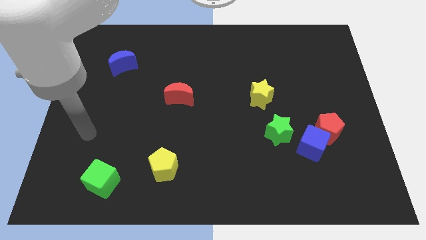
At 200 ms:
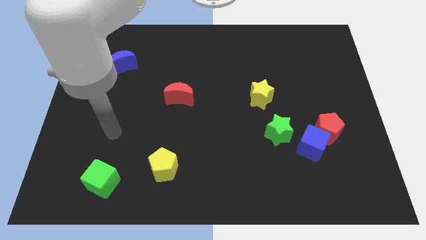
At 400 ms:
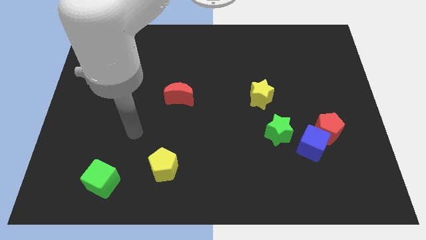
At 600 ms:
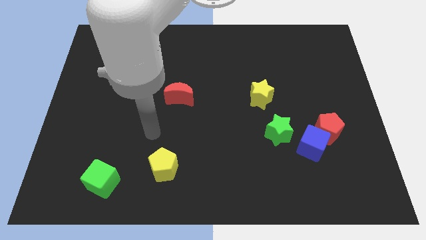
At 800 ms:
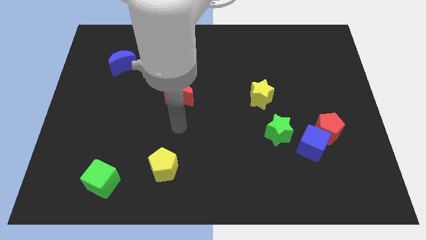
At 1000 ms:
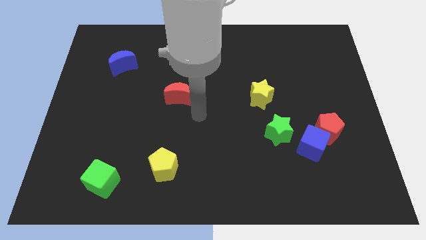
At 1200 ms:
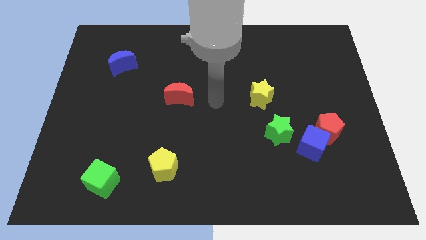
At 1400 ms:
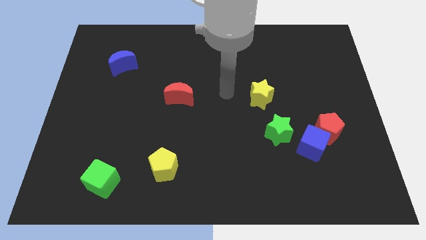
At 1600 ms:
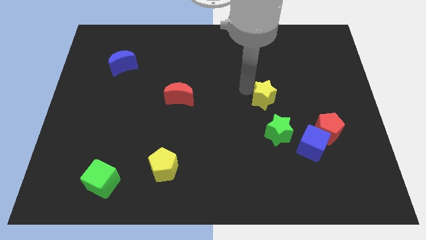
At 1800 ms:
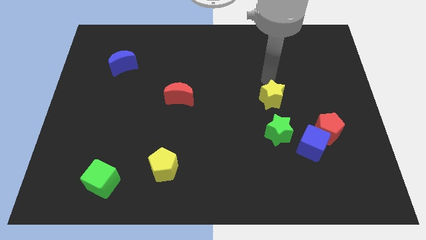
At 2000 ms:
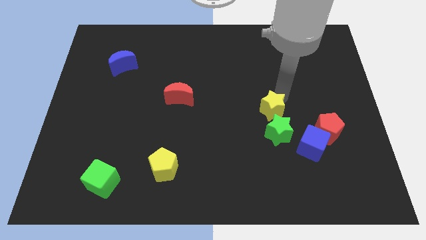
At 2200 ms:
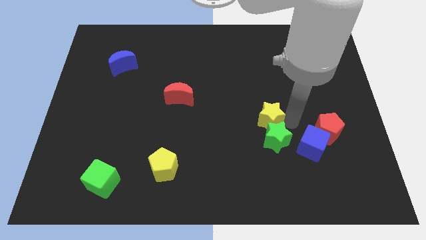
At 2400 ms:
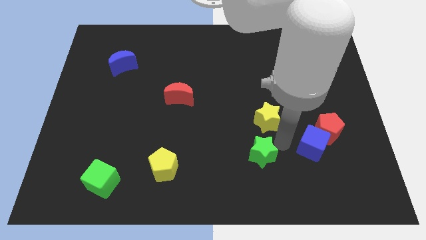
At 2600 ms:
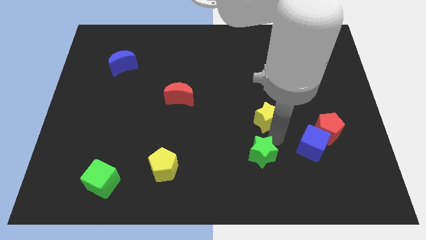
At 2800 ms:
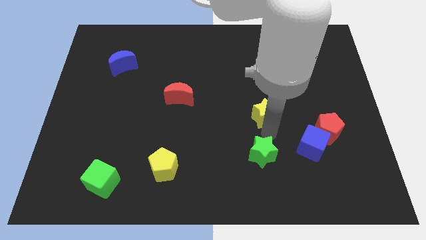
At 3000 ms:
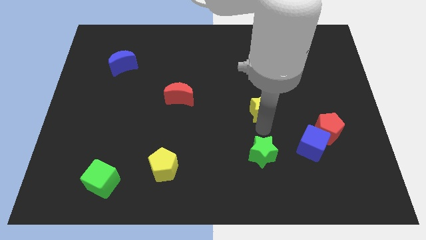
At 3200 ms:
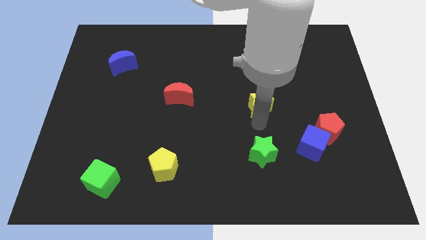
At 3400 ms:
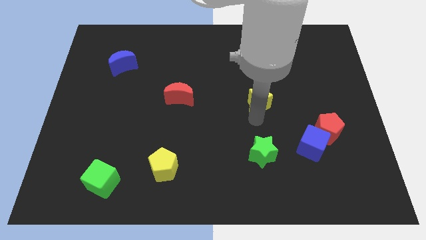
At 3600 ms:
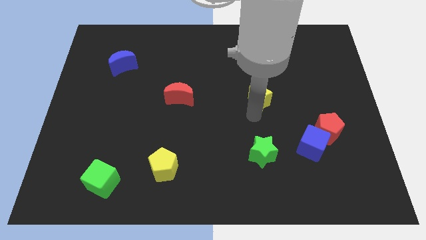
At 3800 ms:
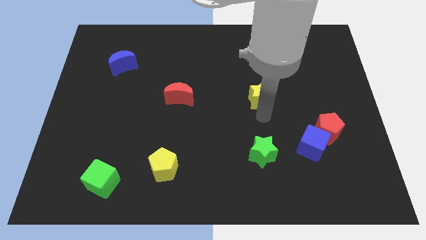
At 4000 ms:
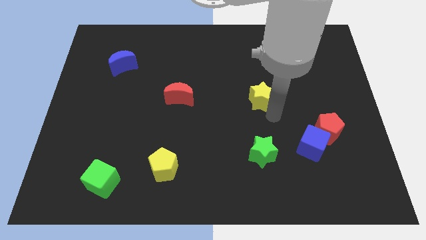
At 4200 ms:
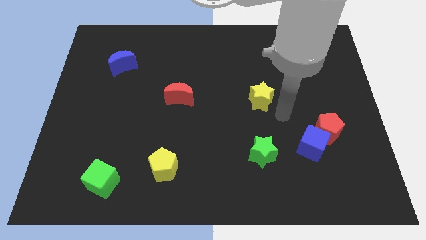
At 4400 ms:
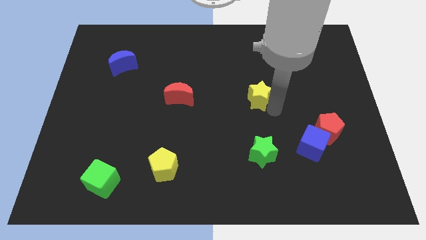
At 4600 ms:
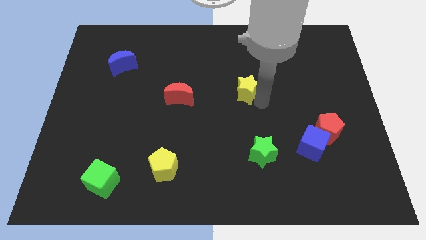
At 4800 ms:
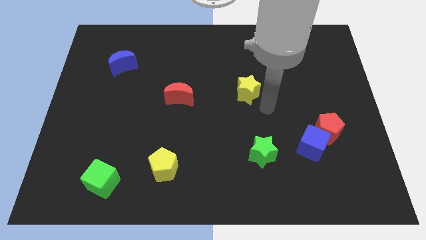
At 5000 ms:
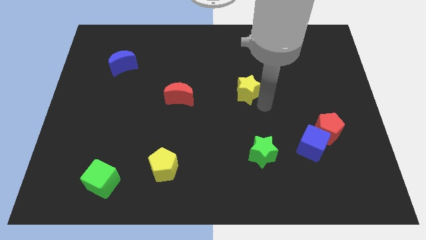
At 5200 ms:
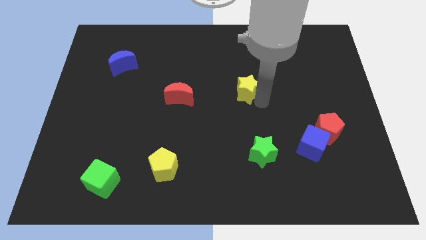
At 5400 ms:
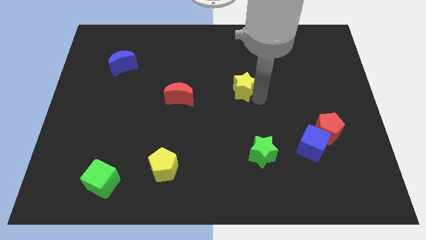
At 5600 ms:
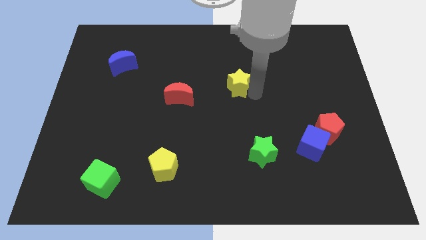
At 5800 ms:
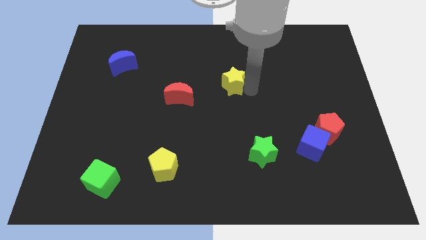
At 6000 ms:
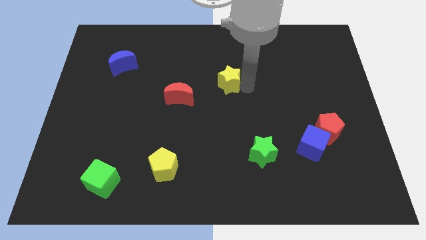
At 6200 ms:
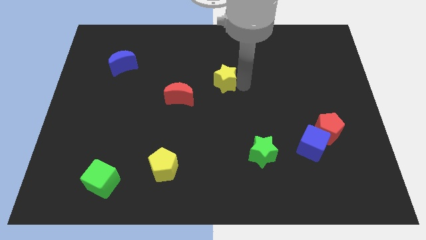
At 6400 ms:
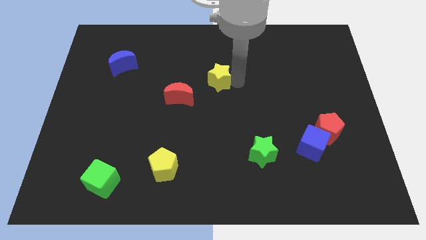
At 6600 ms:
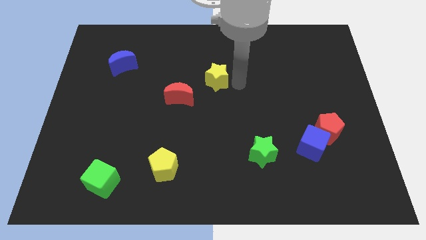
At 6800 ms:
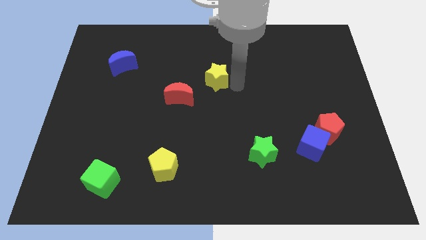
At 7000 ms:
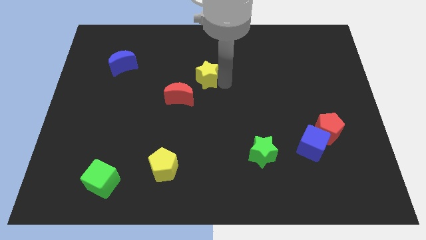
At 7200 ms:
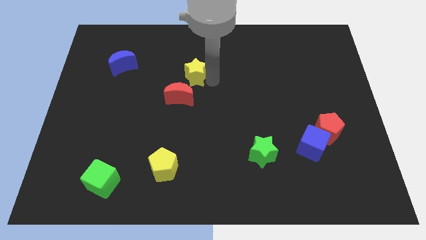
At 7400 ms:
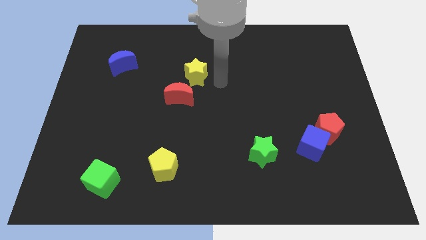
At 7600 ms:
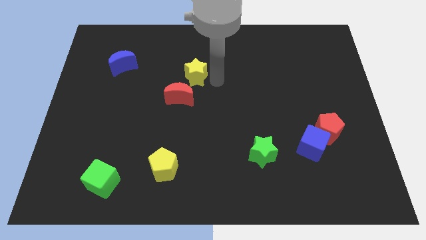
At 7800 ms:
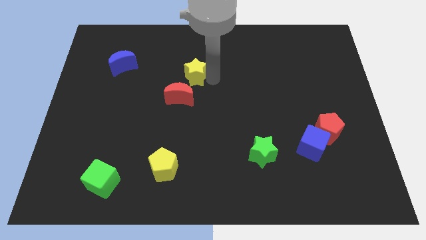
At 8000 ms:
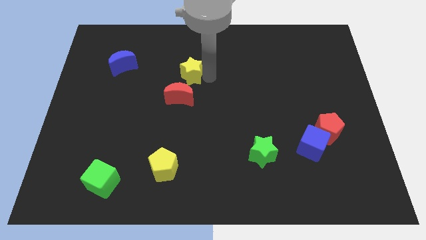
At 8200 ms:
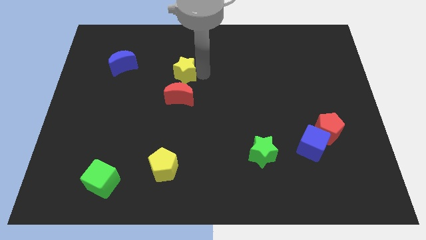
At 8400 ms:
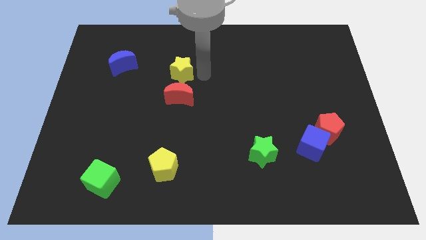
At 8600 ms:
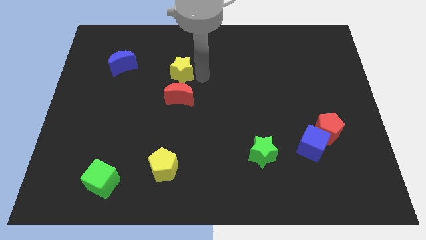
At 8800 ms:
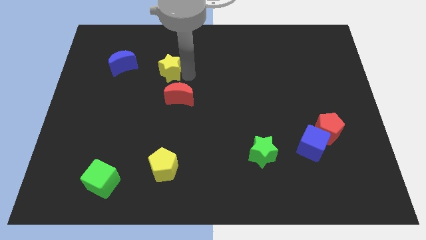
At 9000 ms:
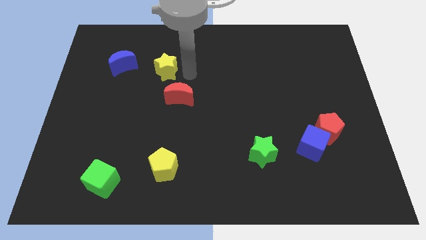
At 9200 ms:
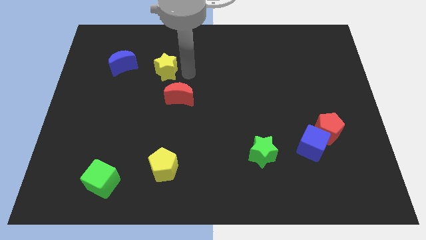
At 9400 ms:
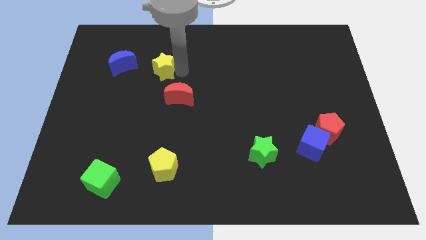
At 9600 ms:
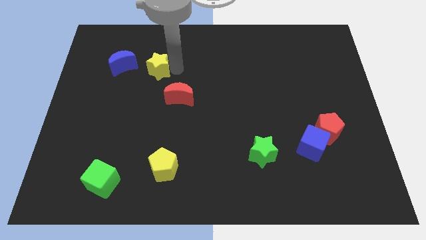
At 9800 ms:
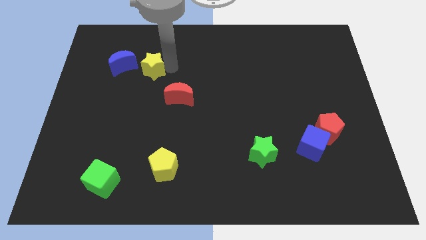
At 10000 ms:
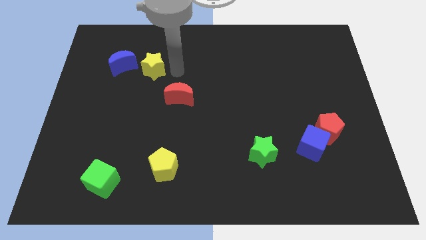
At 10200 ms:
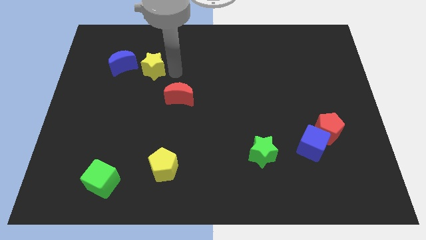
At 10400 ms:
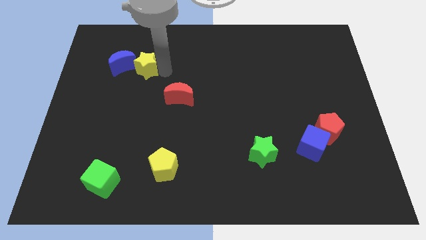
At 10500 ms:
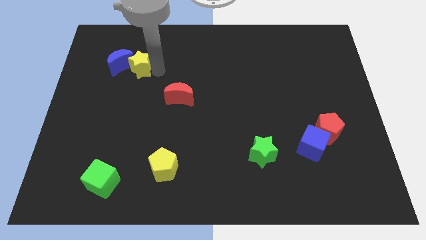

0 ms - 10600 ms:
put the yellow star next to the blue moon

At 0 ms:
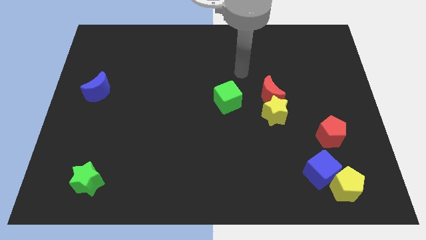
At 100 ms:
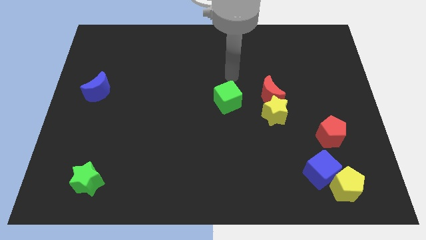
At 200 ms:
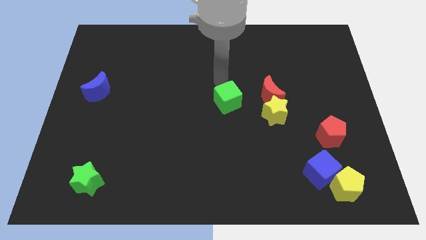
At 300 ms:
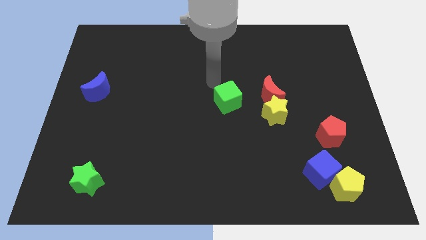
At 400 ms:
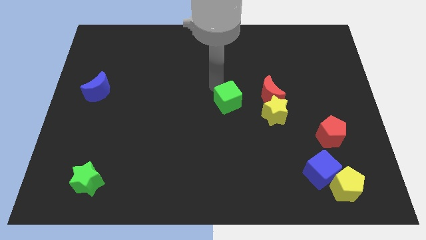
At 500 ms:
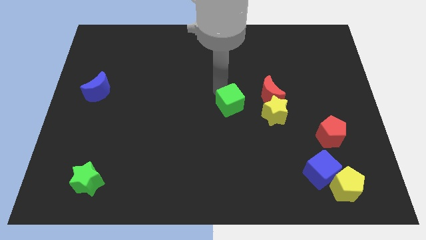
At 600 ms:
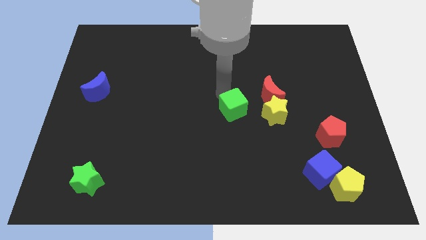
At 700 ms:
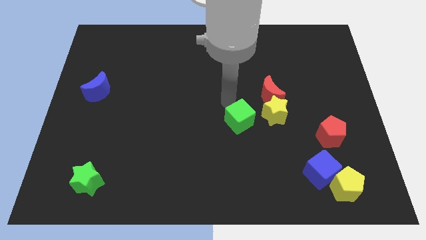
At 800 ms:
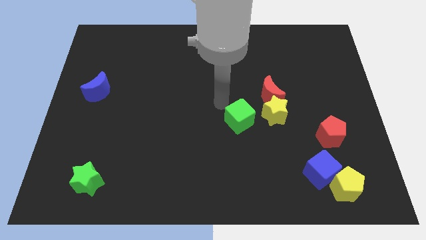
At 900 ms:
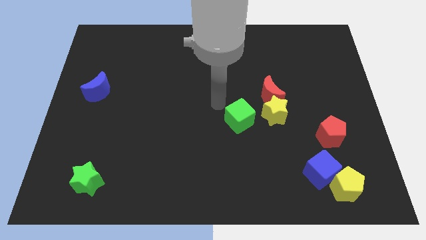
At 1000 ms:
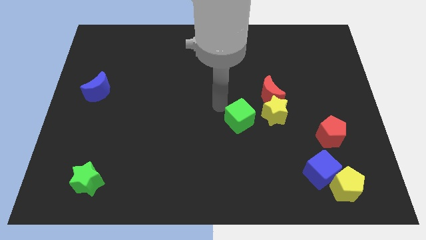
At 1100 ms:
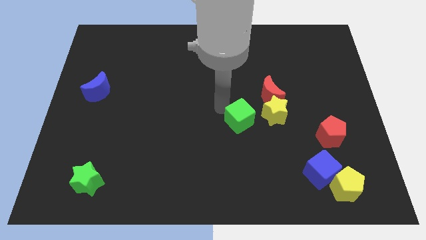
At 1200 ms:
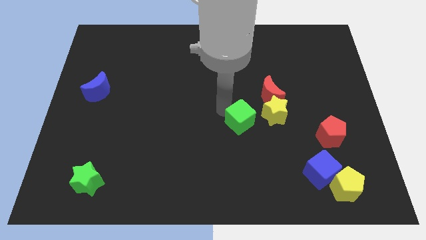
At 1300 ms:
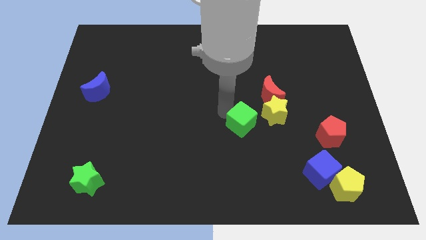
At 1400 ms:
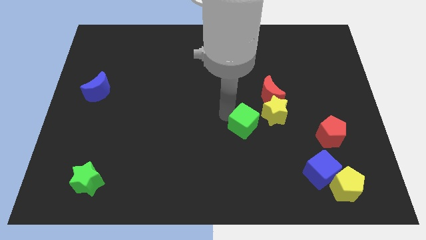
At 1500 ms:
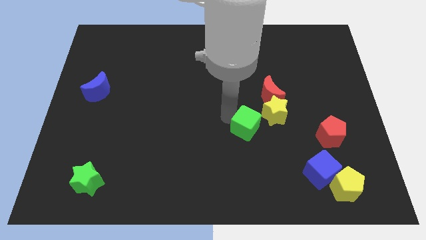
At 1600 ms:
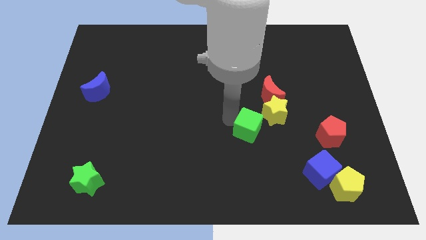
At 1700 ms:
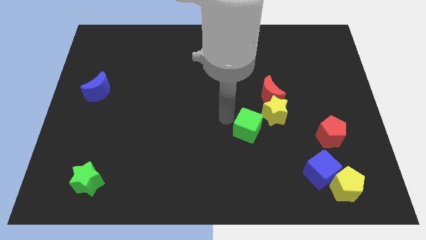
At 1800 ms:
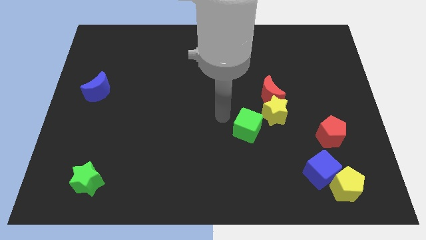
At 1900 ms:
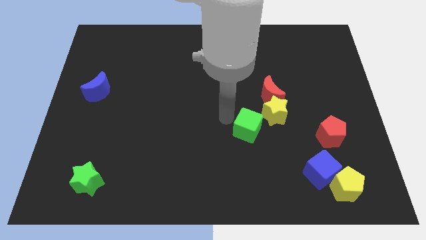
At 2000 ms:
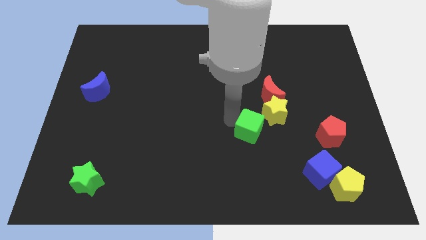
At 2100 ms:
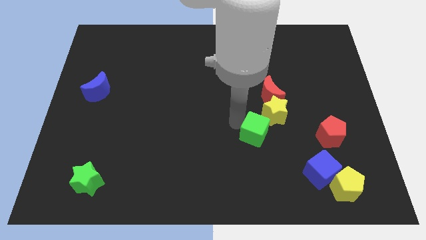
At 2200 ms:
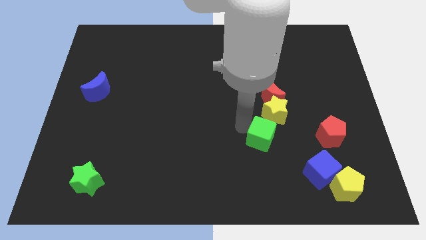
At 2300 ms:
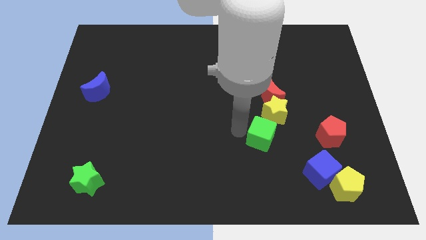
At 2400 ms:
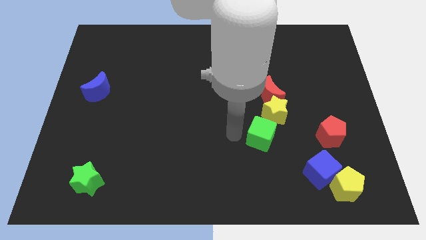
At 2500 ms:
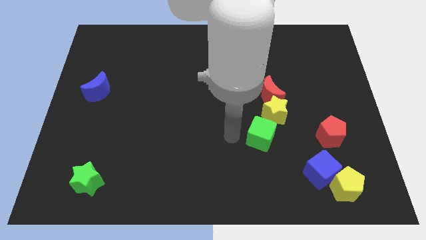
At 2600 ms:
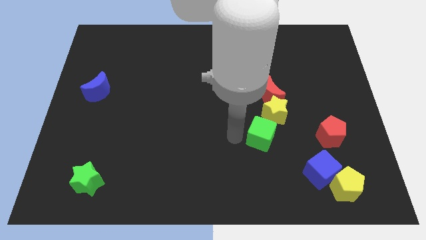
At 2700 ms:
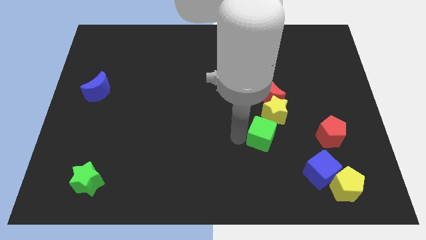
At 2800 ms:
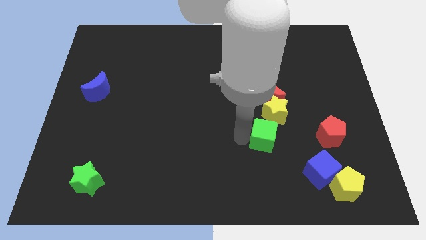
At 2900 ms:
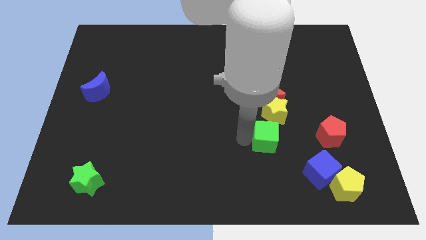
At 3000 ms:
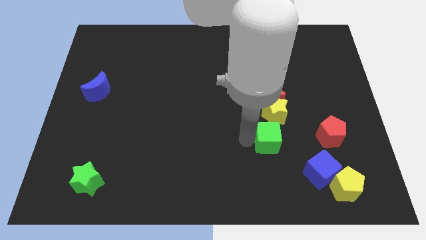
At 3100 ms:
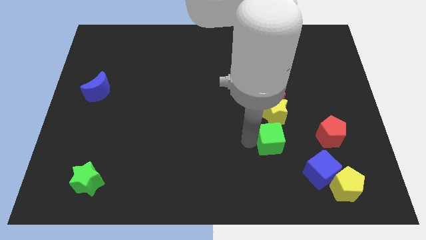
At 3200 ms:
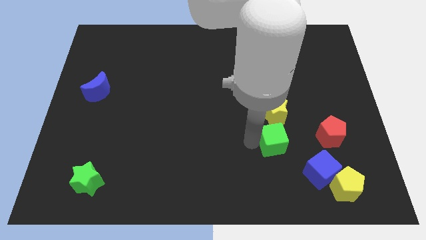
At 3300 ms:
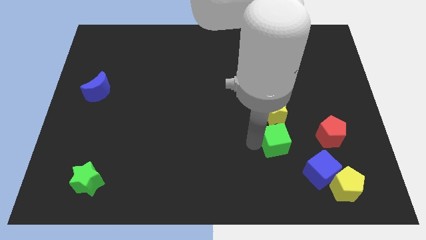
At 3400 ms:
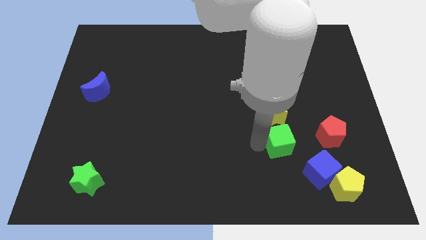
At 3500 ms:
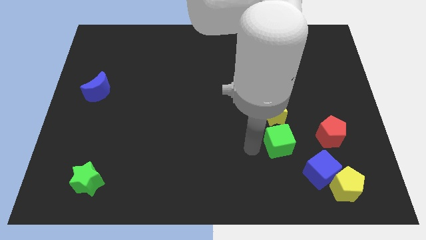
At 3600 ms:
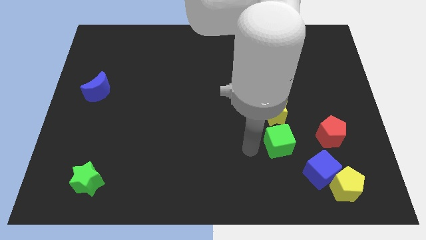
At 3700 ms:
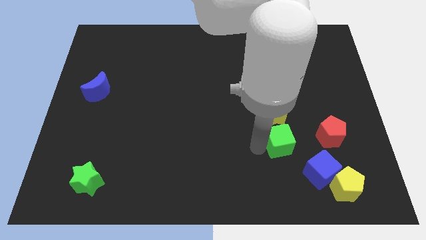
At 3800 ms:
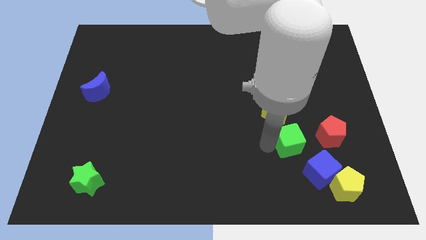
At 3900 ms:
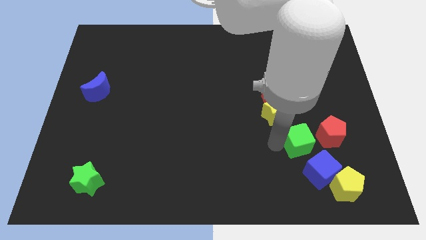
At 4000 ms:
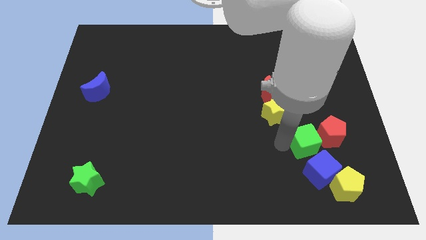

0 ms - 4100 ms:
put the green cube close to the red pentagon
